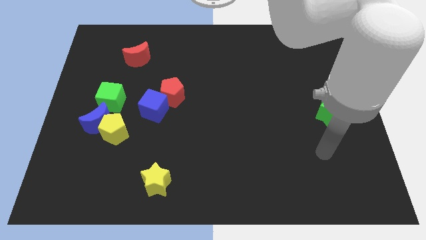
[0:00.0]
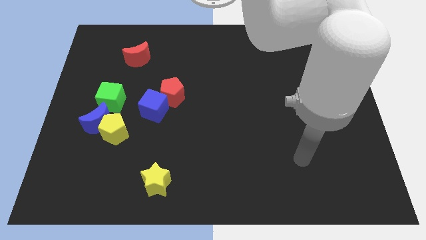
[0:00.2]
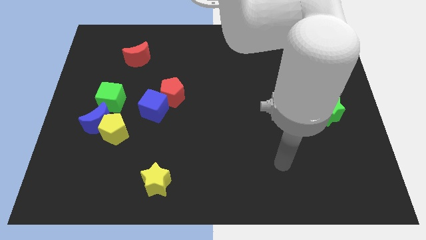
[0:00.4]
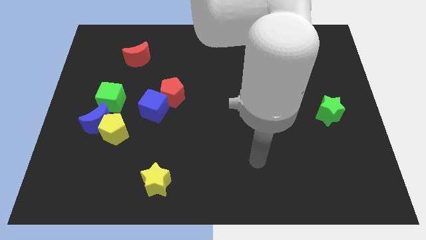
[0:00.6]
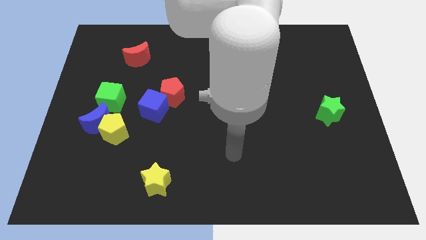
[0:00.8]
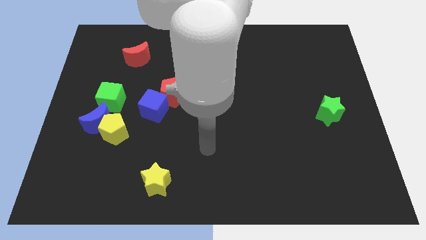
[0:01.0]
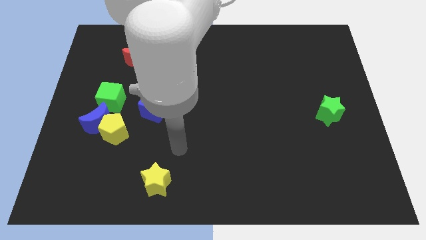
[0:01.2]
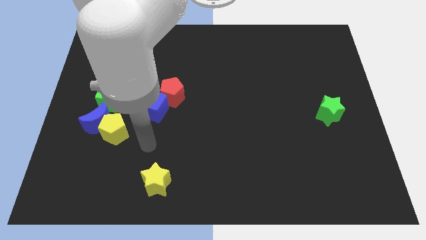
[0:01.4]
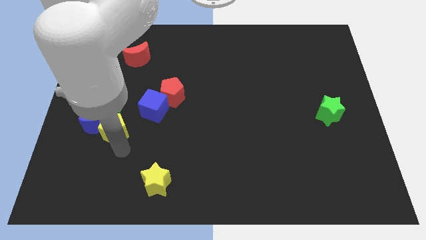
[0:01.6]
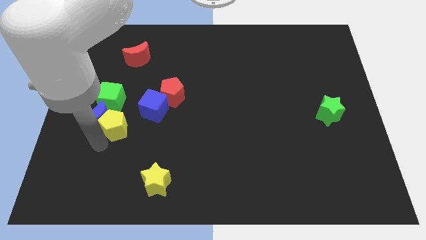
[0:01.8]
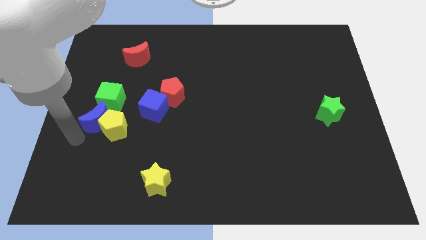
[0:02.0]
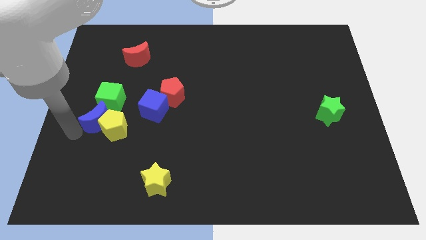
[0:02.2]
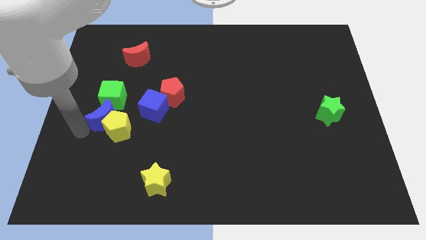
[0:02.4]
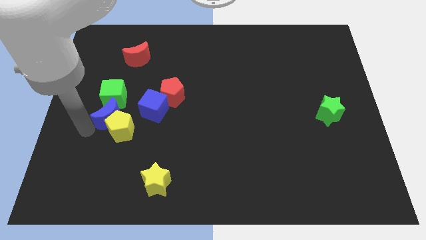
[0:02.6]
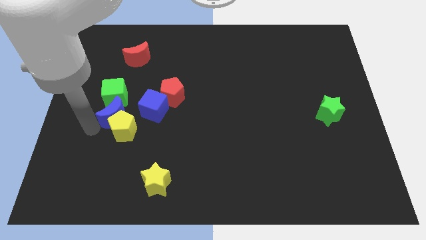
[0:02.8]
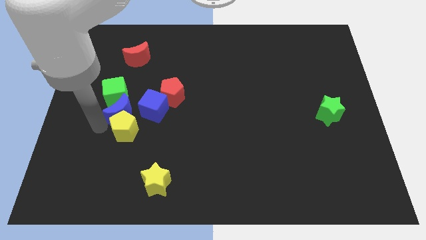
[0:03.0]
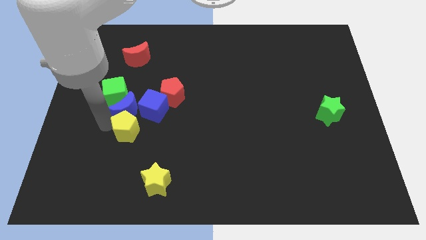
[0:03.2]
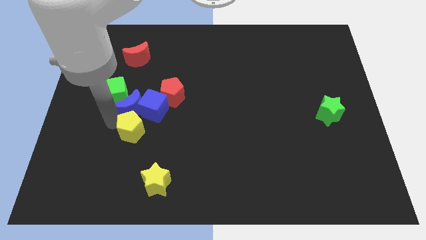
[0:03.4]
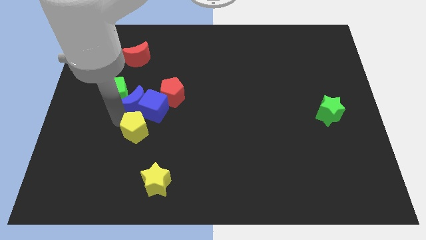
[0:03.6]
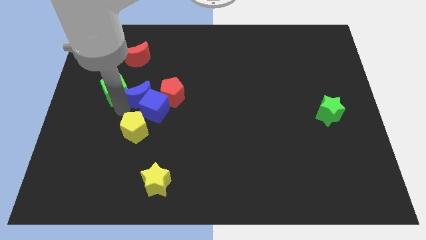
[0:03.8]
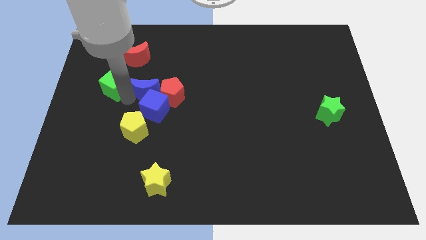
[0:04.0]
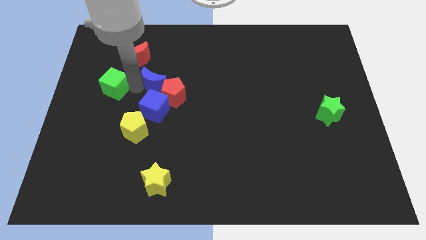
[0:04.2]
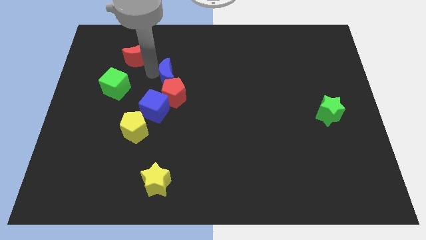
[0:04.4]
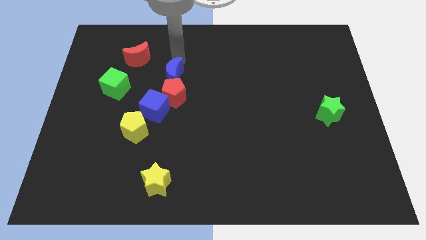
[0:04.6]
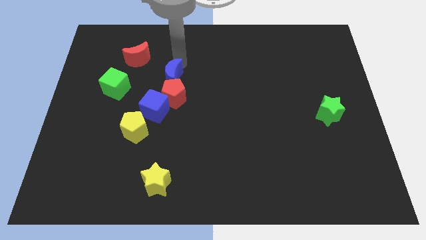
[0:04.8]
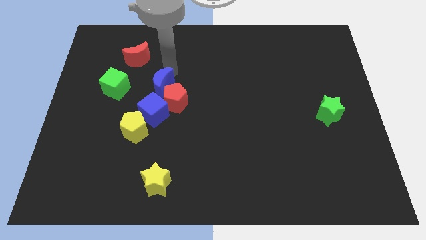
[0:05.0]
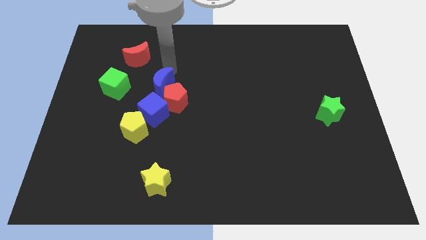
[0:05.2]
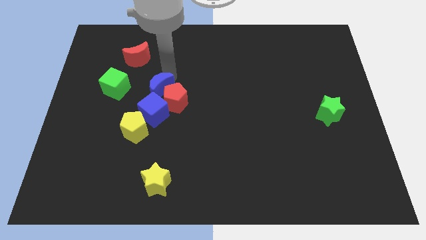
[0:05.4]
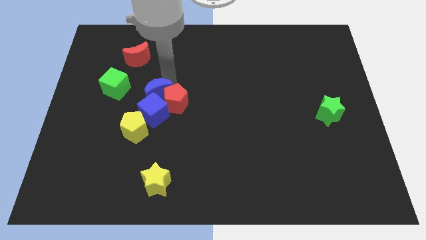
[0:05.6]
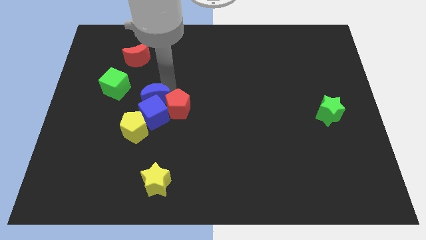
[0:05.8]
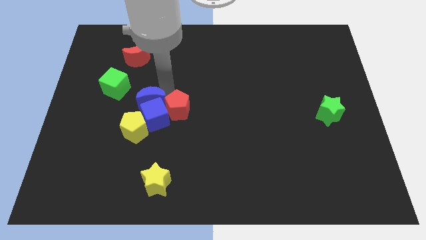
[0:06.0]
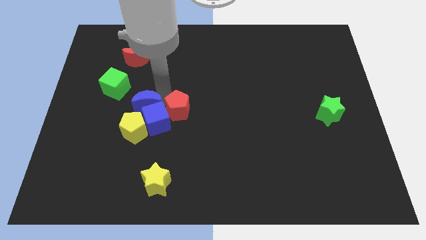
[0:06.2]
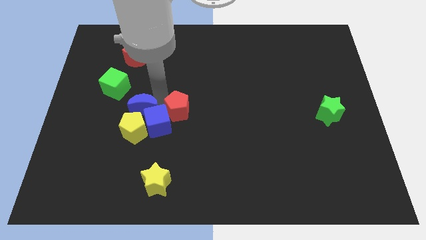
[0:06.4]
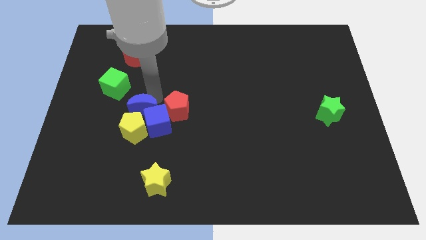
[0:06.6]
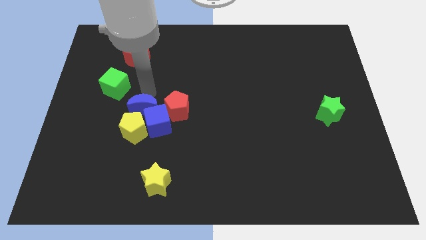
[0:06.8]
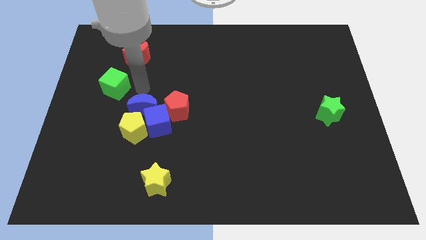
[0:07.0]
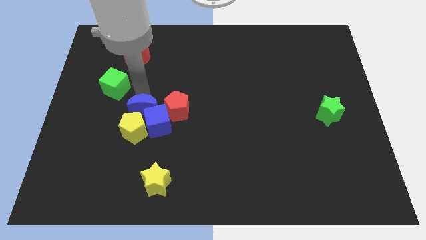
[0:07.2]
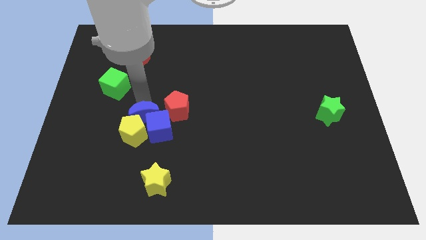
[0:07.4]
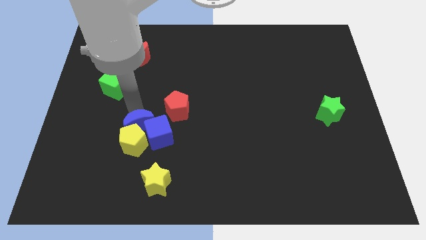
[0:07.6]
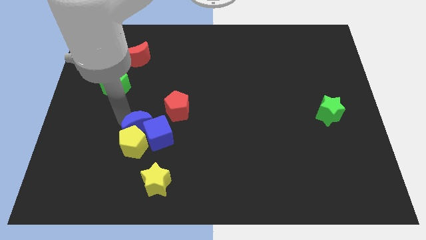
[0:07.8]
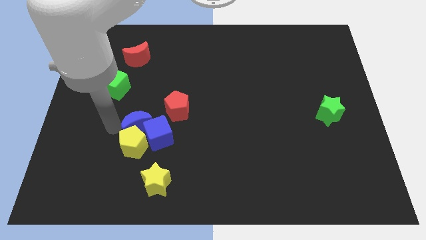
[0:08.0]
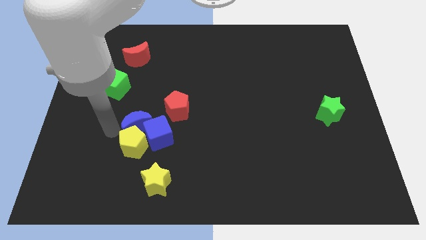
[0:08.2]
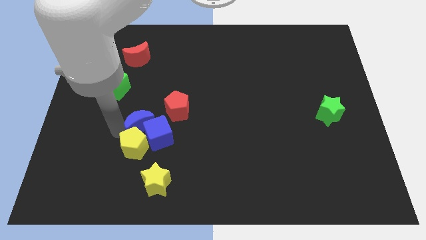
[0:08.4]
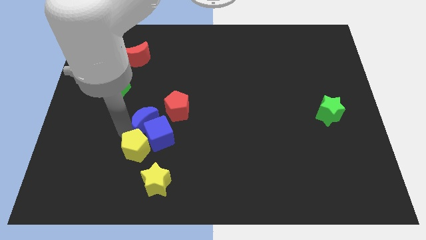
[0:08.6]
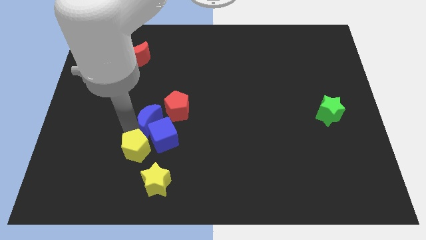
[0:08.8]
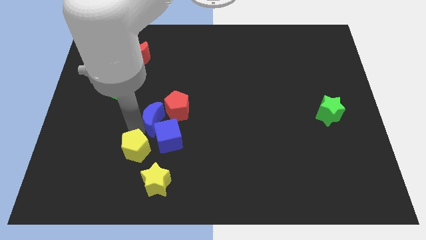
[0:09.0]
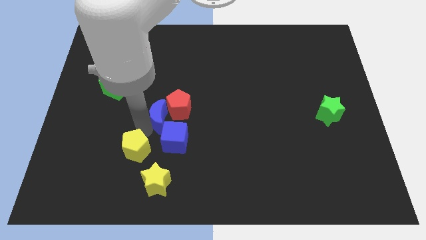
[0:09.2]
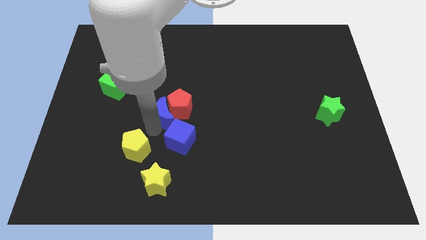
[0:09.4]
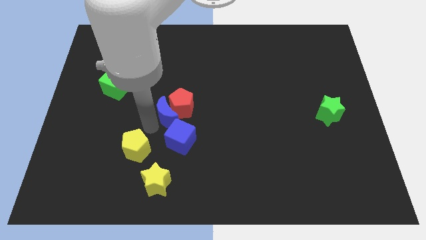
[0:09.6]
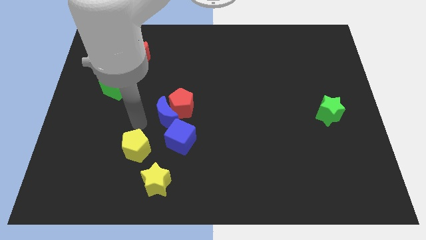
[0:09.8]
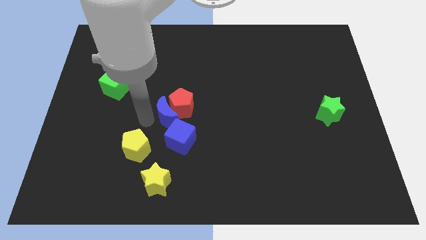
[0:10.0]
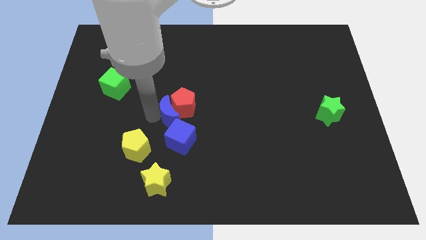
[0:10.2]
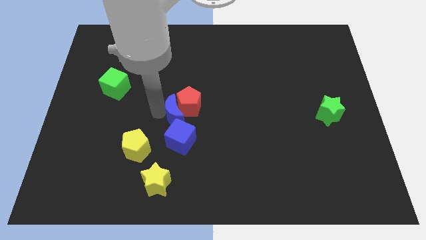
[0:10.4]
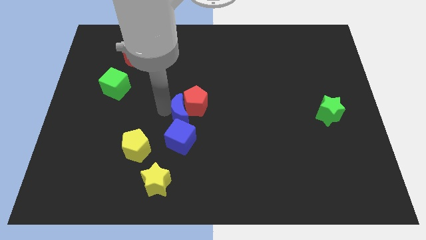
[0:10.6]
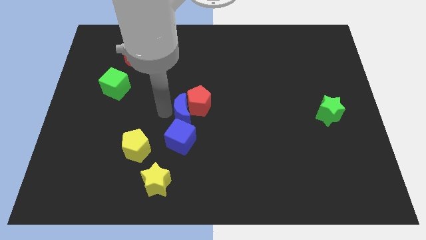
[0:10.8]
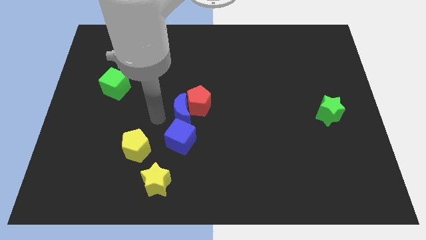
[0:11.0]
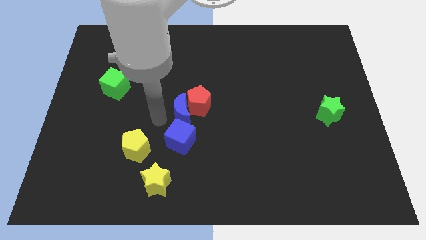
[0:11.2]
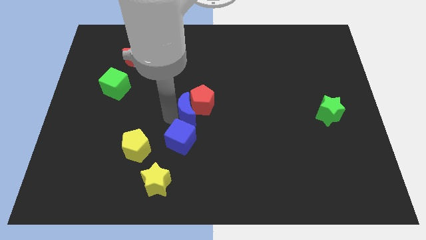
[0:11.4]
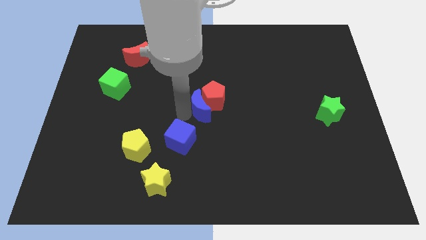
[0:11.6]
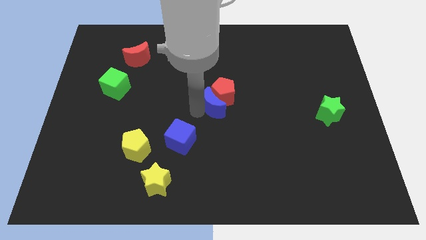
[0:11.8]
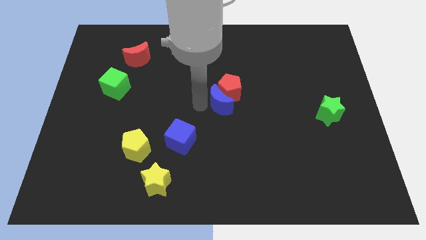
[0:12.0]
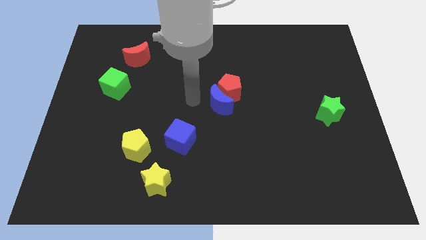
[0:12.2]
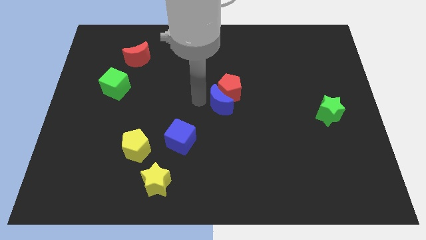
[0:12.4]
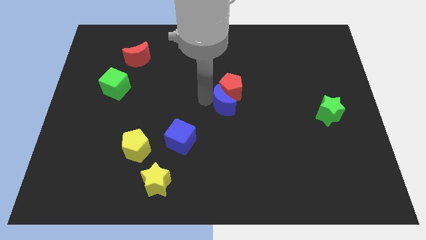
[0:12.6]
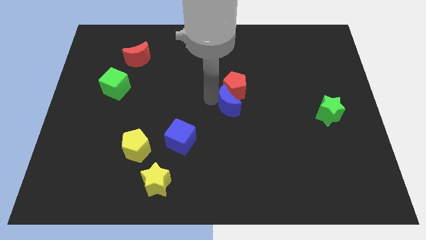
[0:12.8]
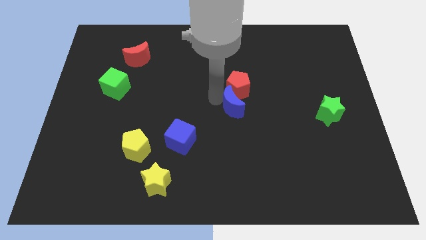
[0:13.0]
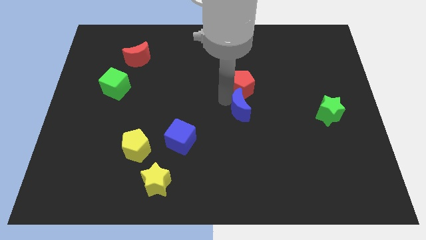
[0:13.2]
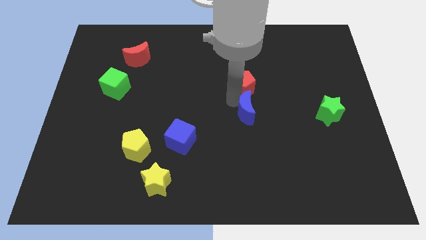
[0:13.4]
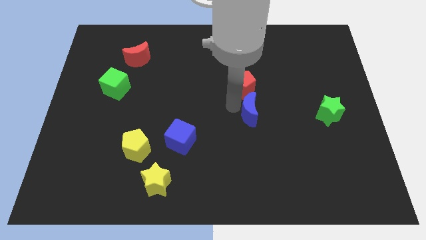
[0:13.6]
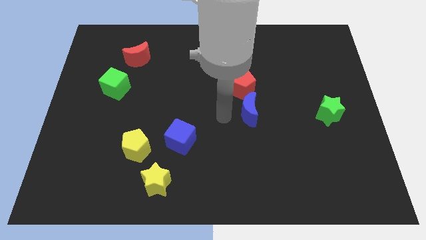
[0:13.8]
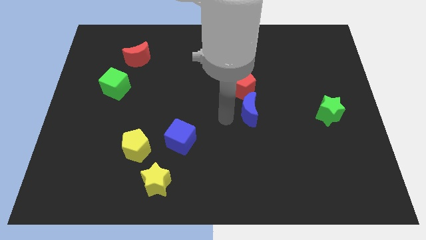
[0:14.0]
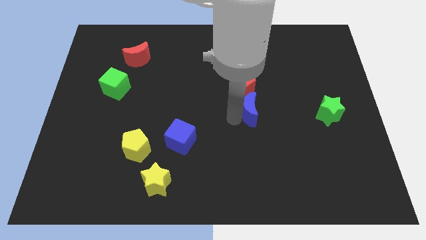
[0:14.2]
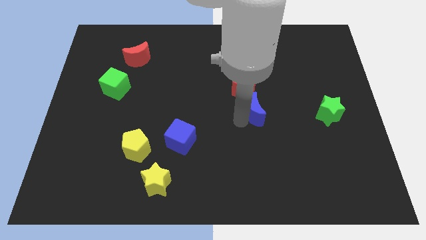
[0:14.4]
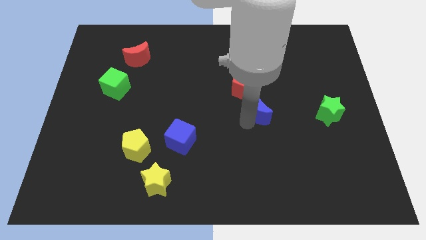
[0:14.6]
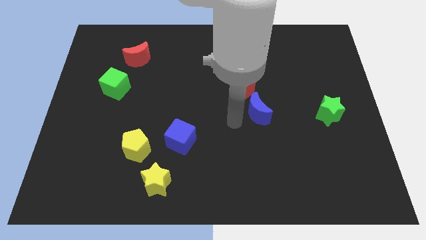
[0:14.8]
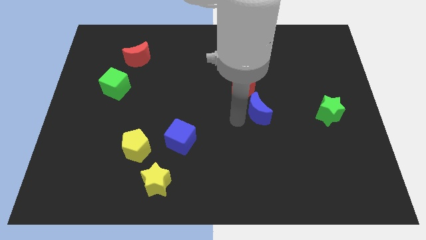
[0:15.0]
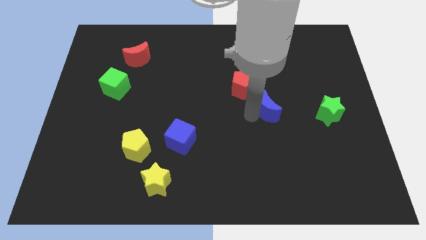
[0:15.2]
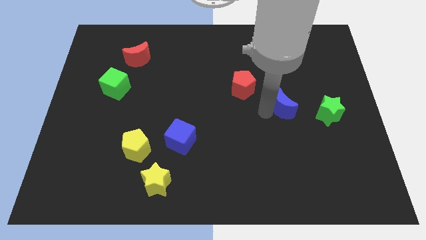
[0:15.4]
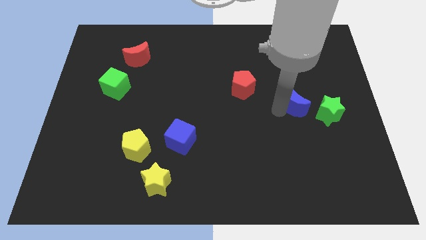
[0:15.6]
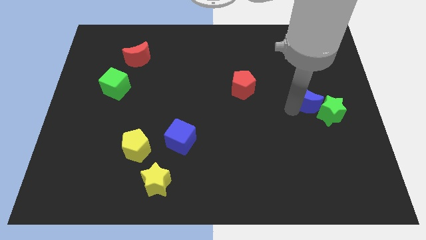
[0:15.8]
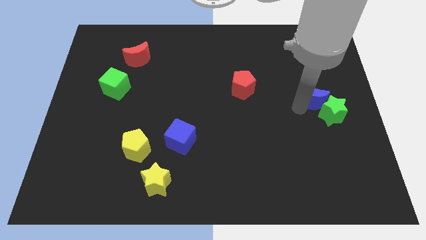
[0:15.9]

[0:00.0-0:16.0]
slide the blue moon to the top of the green star

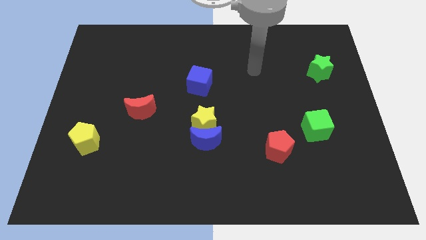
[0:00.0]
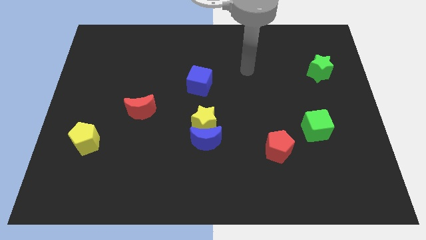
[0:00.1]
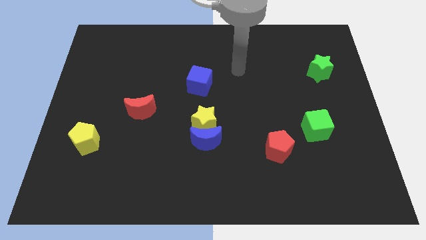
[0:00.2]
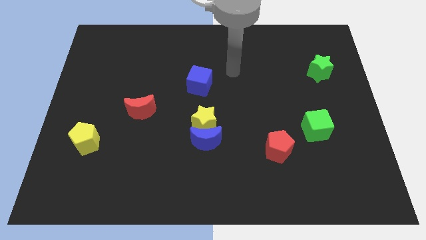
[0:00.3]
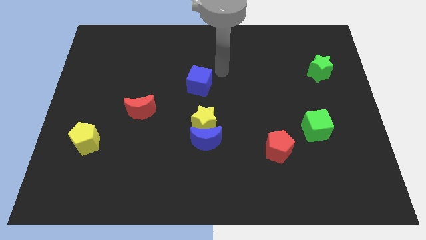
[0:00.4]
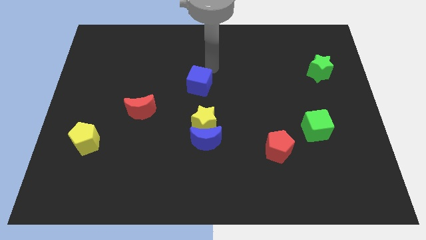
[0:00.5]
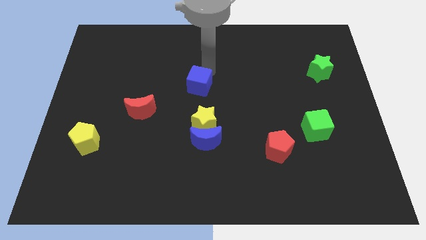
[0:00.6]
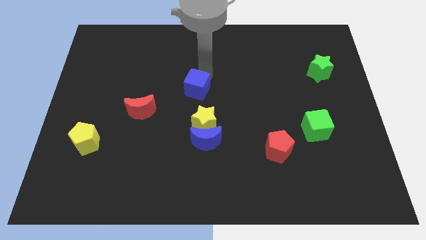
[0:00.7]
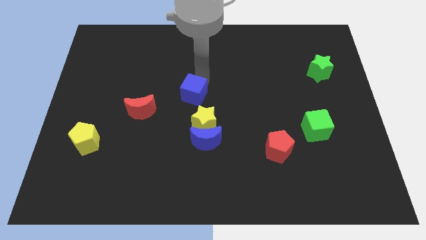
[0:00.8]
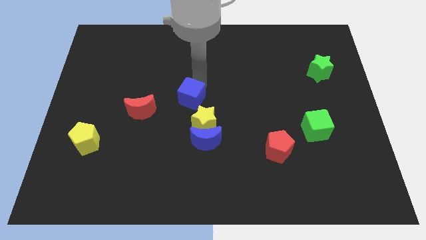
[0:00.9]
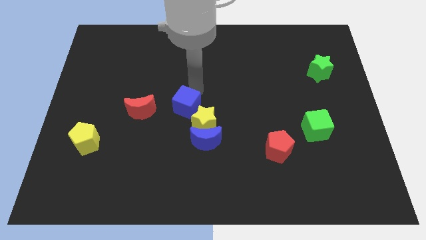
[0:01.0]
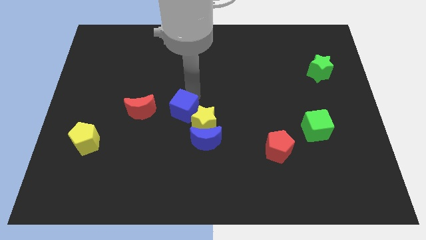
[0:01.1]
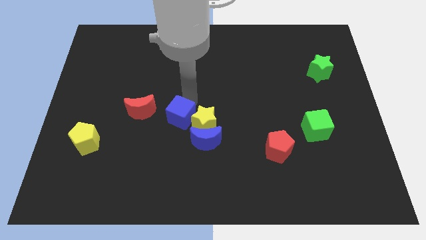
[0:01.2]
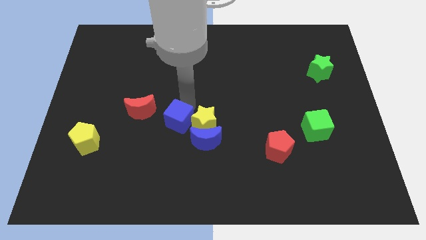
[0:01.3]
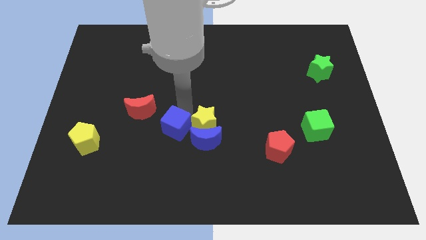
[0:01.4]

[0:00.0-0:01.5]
move the blue cube just left of the blue moon
